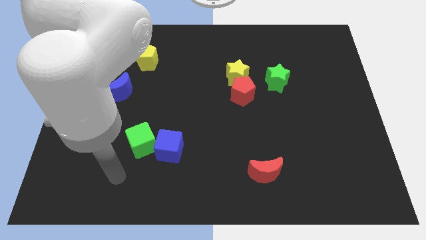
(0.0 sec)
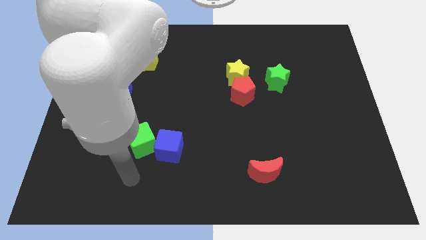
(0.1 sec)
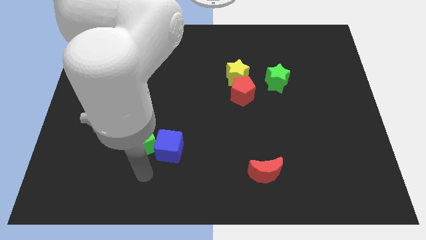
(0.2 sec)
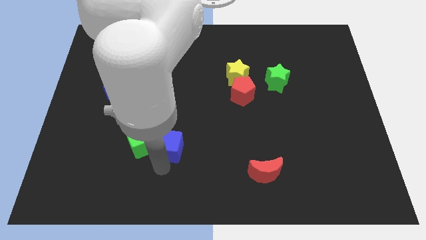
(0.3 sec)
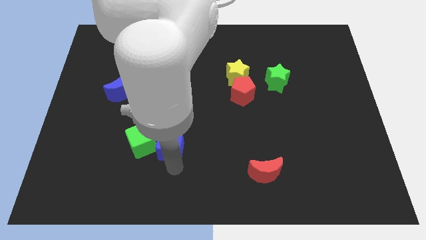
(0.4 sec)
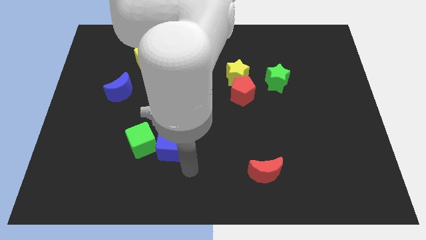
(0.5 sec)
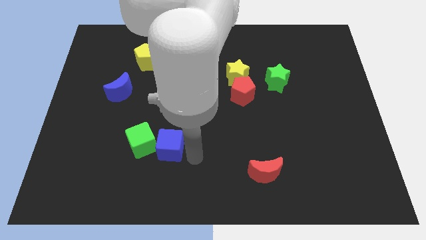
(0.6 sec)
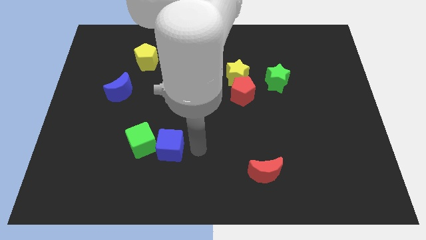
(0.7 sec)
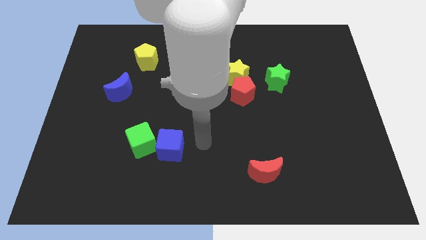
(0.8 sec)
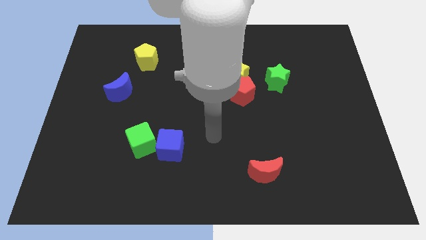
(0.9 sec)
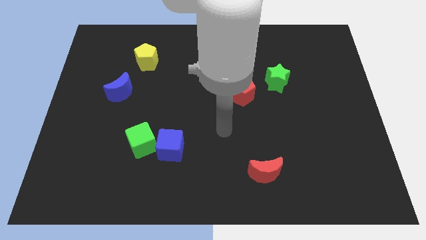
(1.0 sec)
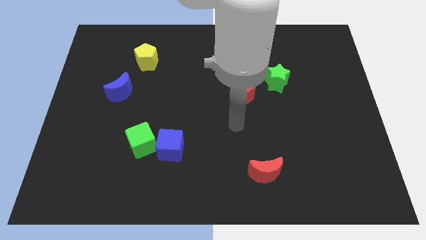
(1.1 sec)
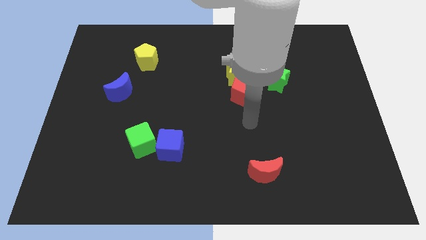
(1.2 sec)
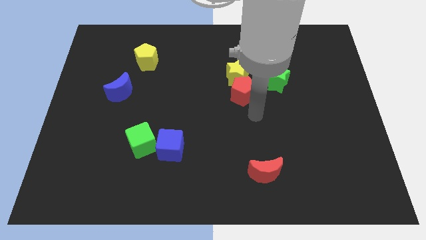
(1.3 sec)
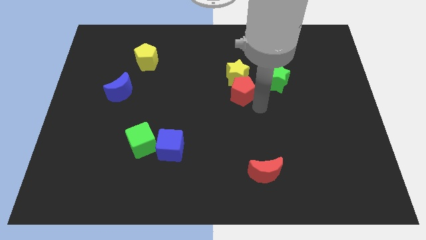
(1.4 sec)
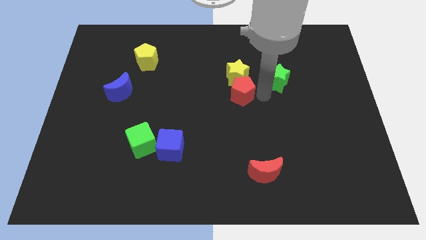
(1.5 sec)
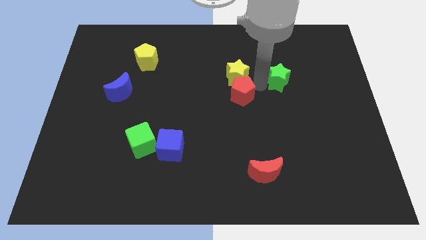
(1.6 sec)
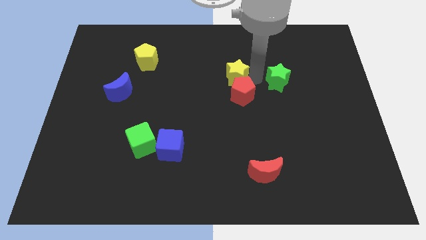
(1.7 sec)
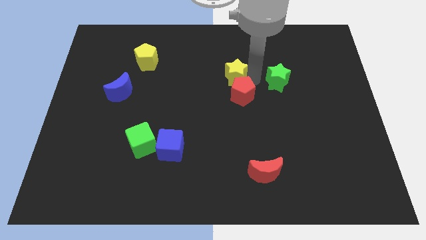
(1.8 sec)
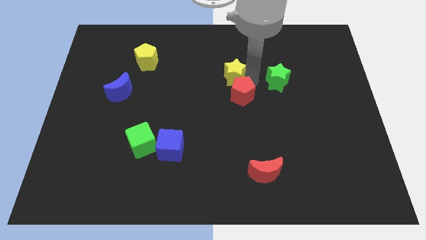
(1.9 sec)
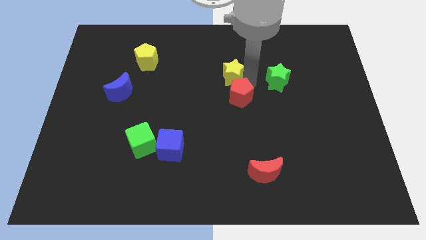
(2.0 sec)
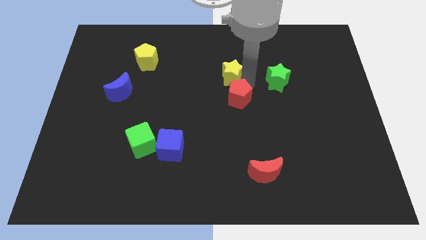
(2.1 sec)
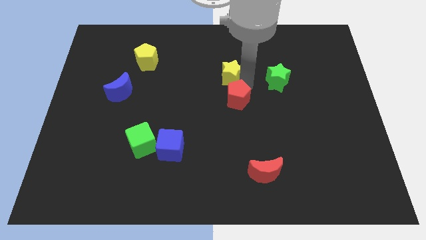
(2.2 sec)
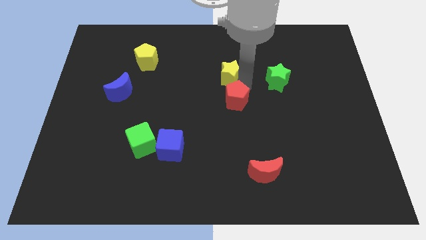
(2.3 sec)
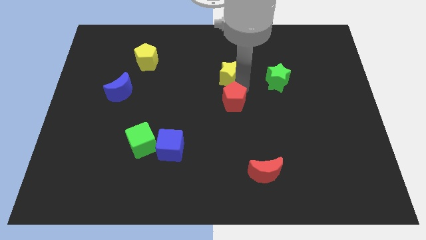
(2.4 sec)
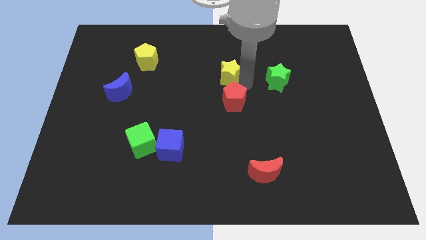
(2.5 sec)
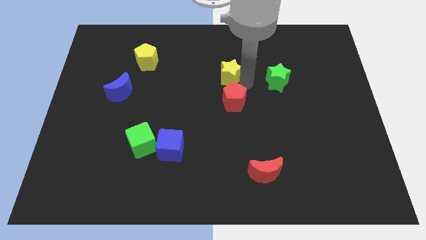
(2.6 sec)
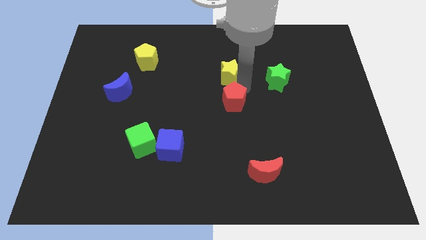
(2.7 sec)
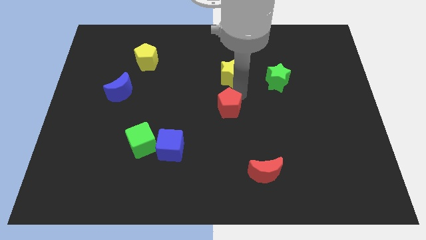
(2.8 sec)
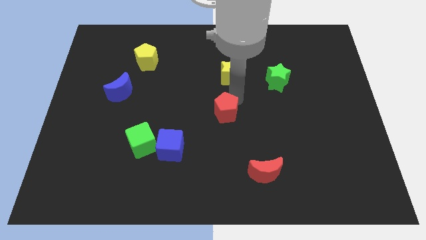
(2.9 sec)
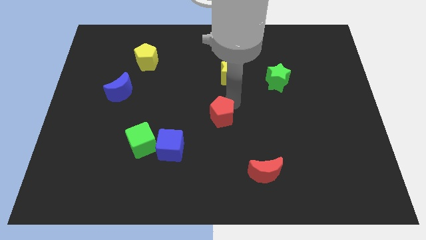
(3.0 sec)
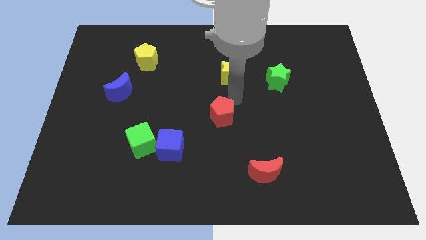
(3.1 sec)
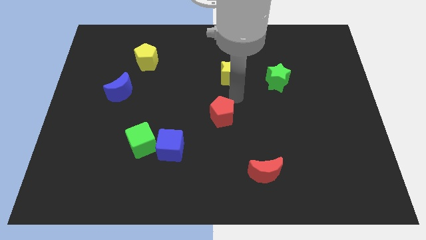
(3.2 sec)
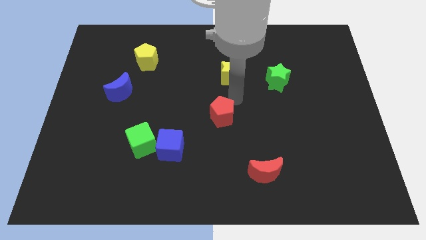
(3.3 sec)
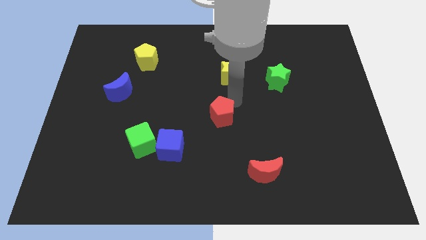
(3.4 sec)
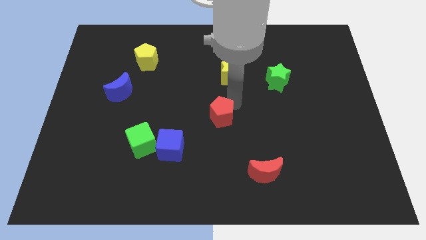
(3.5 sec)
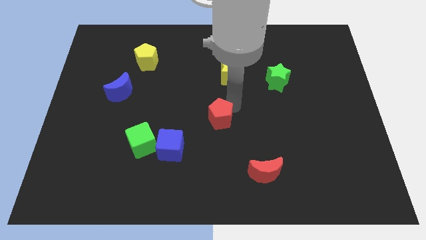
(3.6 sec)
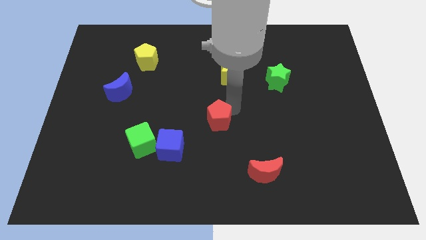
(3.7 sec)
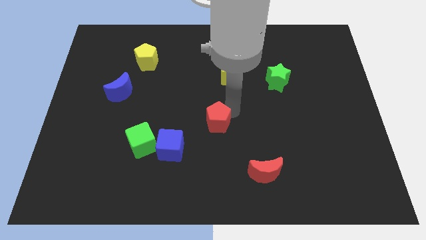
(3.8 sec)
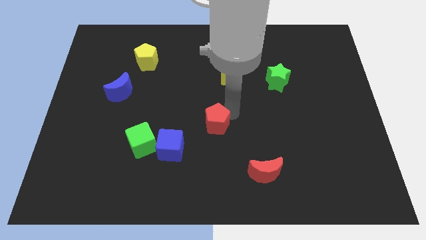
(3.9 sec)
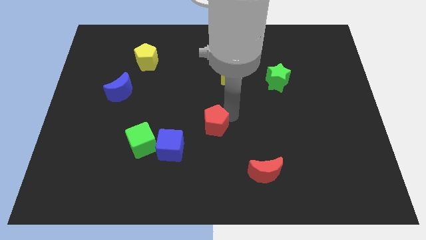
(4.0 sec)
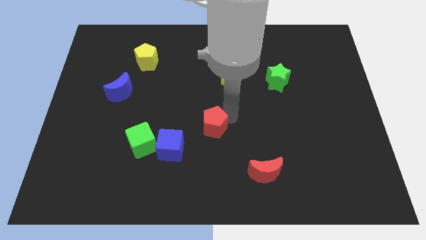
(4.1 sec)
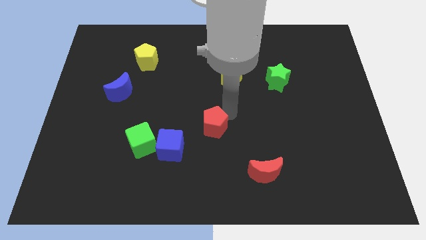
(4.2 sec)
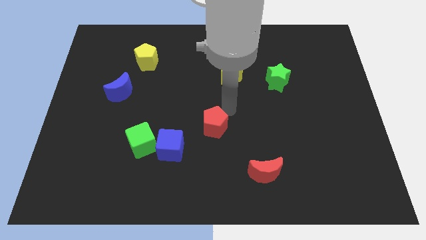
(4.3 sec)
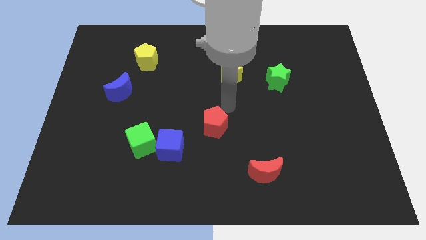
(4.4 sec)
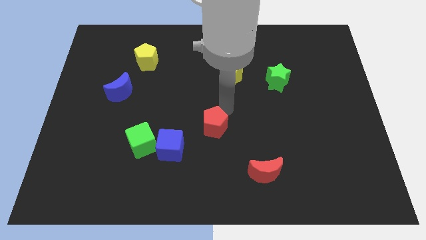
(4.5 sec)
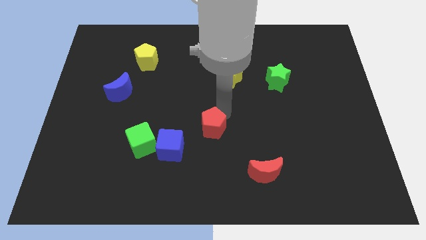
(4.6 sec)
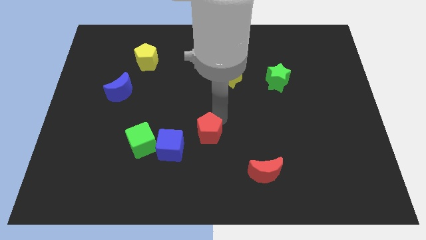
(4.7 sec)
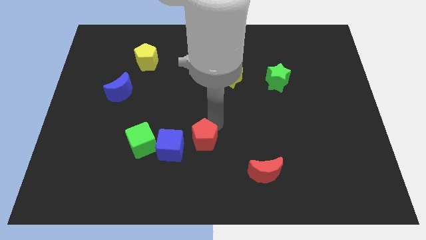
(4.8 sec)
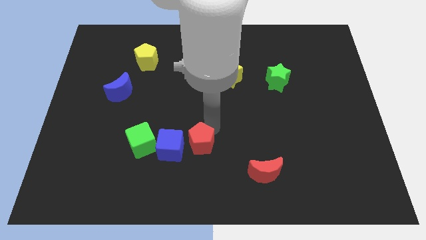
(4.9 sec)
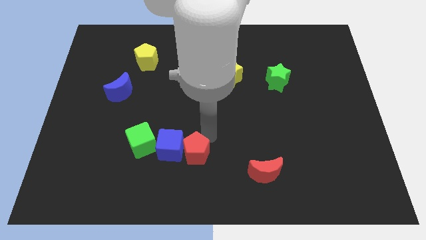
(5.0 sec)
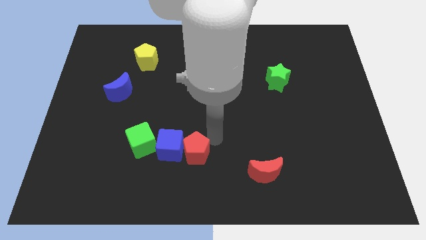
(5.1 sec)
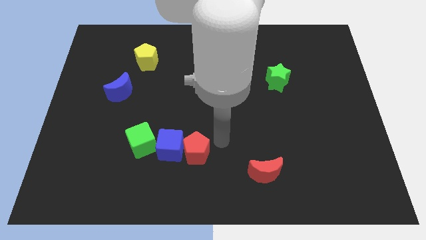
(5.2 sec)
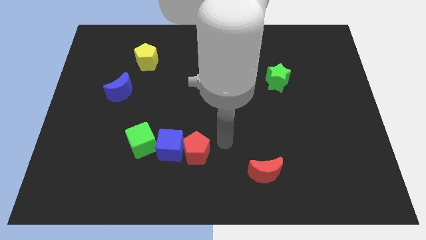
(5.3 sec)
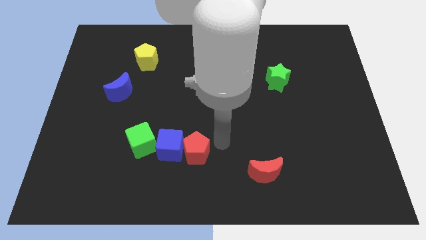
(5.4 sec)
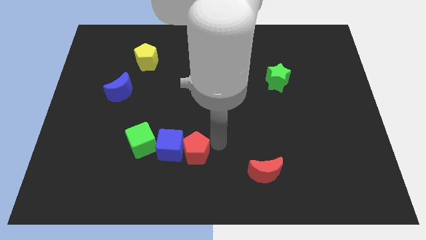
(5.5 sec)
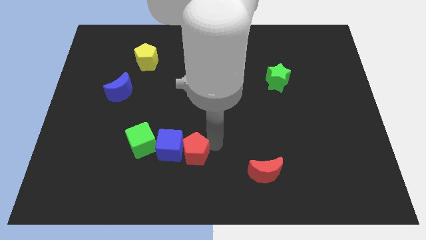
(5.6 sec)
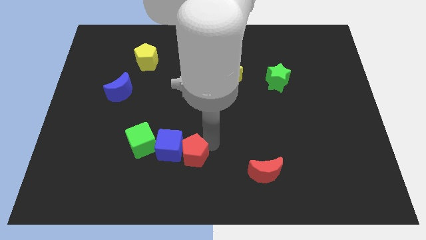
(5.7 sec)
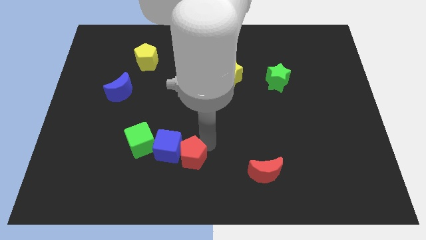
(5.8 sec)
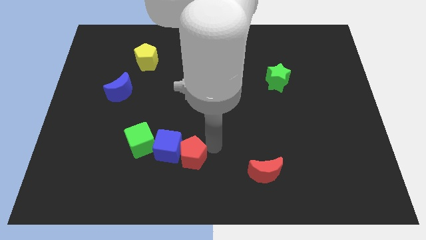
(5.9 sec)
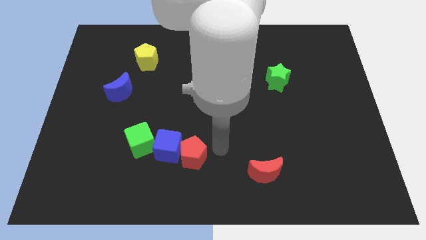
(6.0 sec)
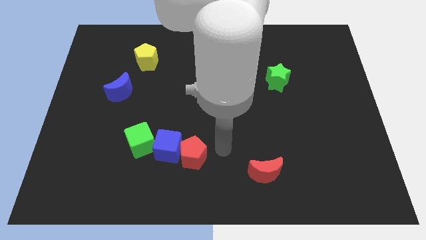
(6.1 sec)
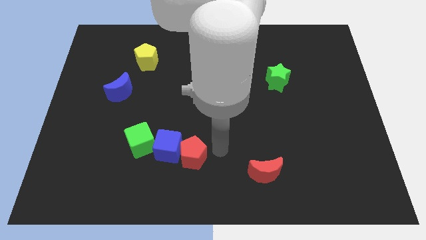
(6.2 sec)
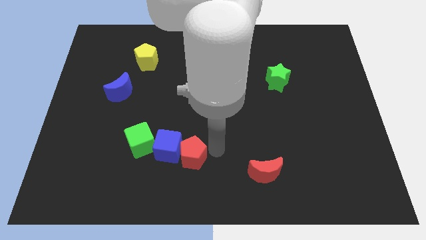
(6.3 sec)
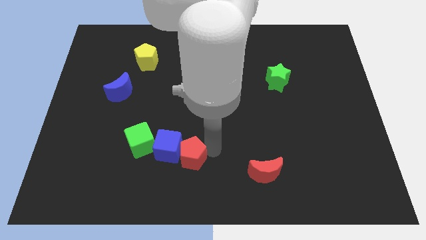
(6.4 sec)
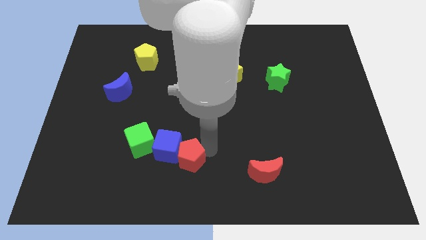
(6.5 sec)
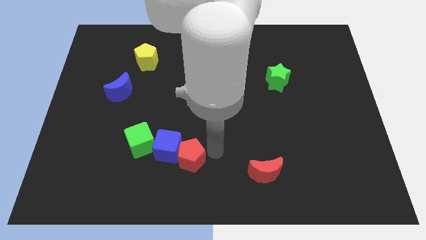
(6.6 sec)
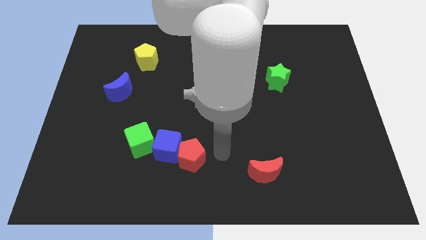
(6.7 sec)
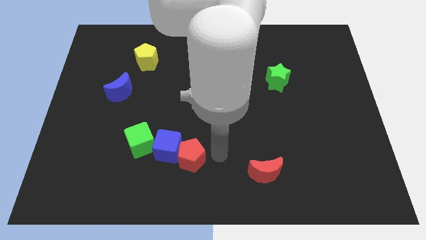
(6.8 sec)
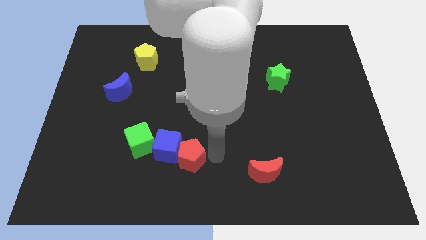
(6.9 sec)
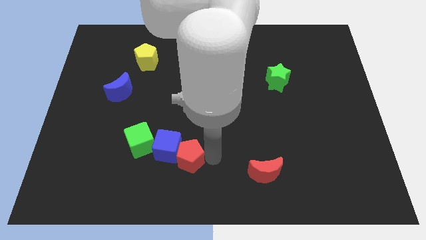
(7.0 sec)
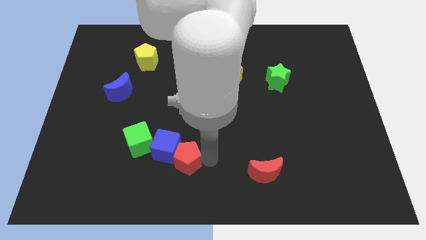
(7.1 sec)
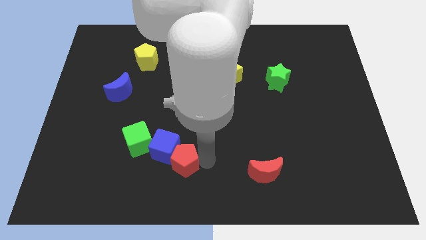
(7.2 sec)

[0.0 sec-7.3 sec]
put the red pentagon to the bottom right side of the green cube

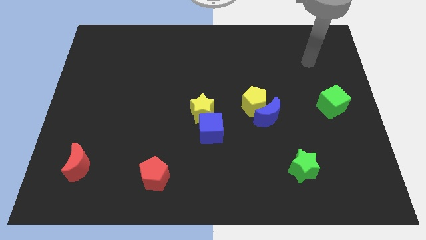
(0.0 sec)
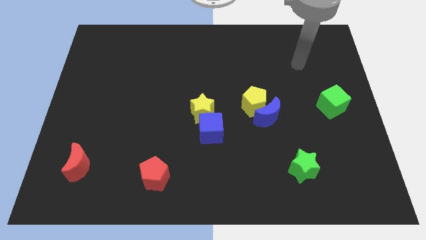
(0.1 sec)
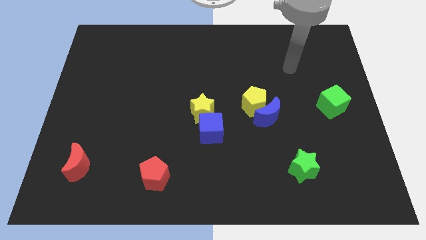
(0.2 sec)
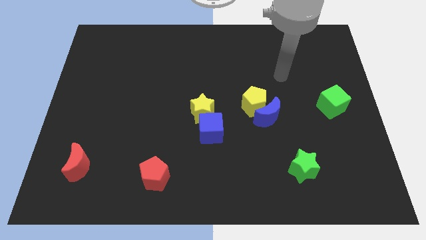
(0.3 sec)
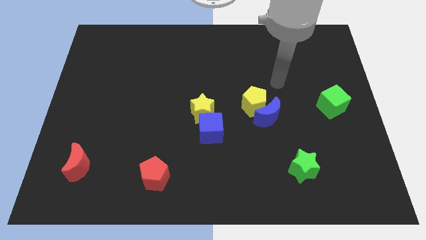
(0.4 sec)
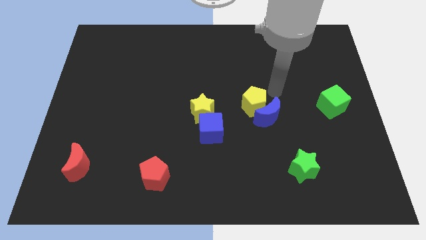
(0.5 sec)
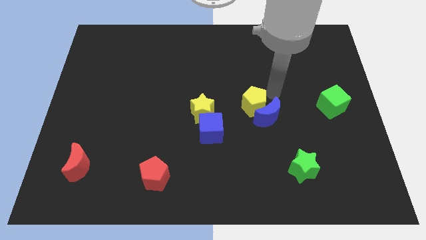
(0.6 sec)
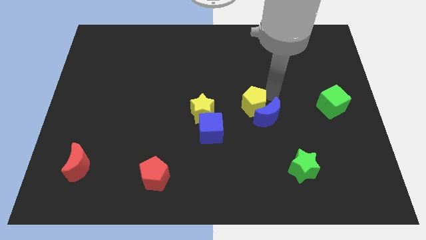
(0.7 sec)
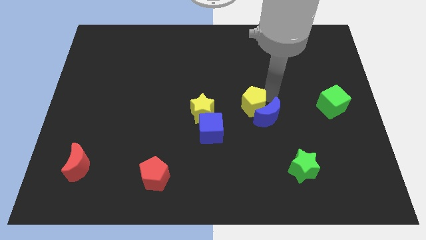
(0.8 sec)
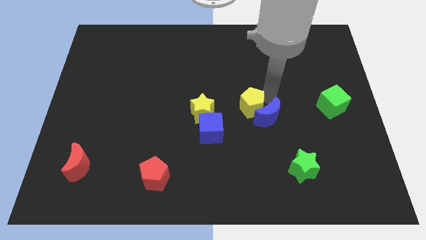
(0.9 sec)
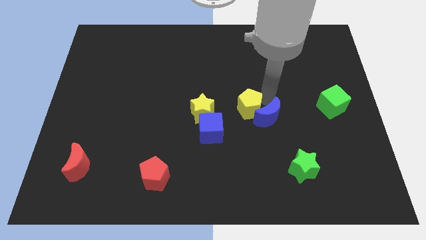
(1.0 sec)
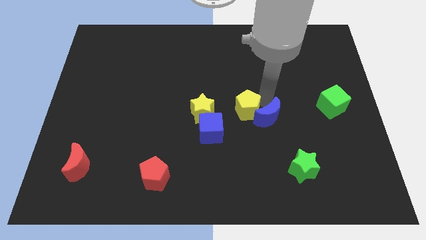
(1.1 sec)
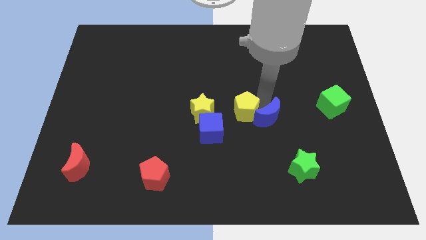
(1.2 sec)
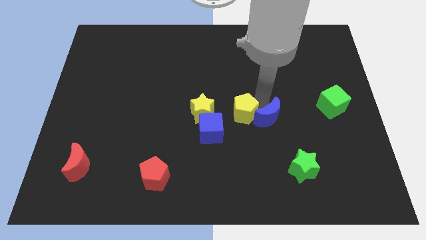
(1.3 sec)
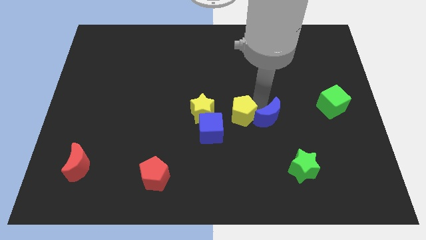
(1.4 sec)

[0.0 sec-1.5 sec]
slide the yellow pentagon to the right of the blue cube
